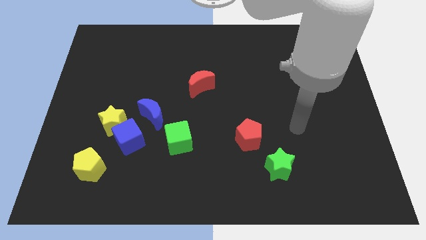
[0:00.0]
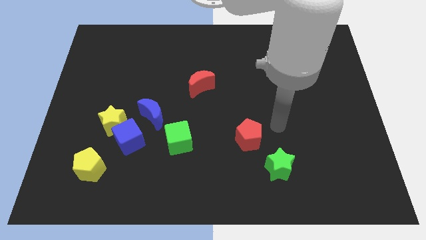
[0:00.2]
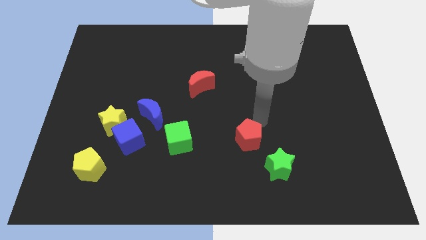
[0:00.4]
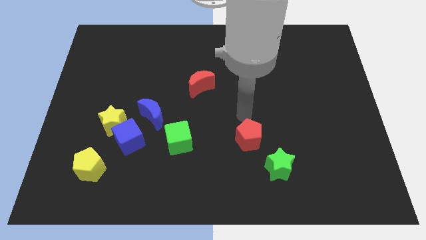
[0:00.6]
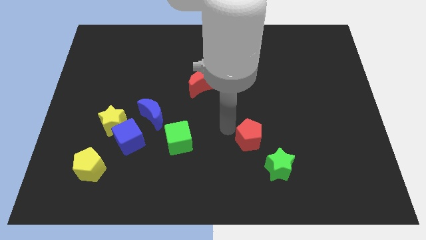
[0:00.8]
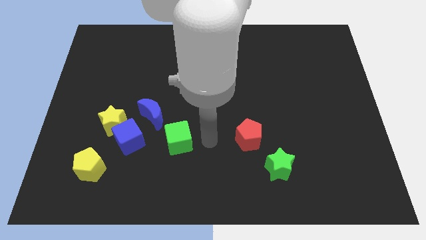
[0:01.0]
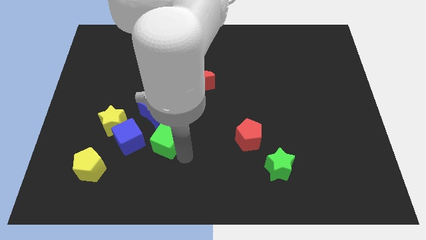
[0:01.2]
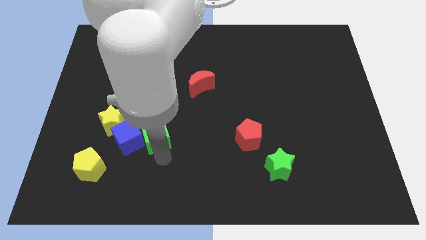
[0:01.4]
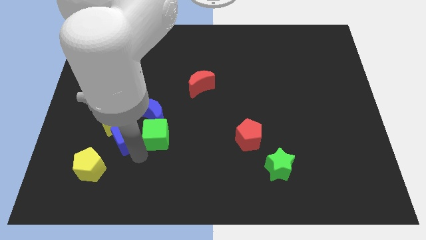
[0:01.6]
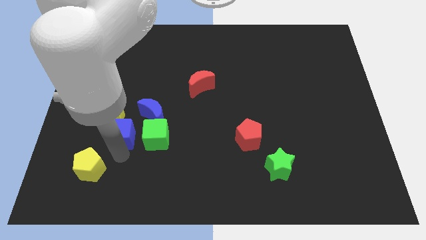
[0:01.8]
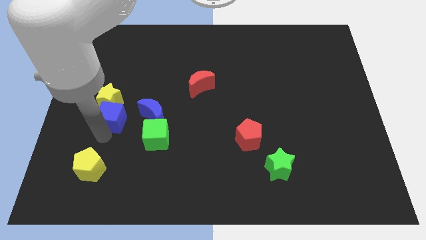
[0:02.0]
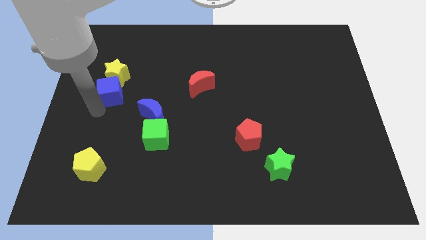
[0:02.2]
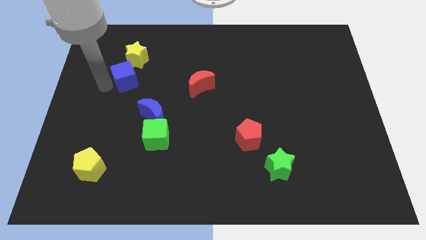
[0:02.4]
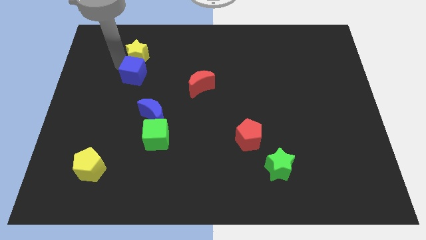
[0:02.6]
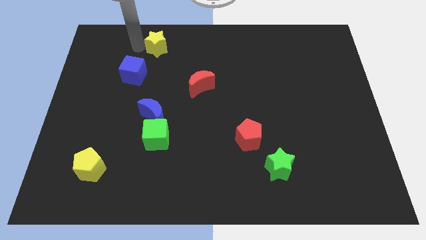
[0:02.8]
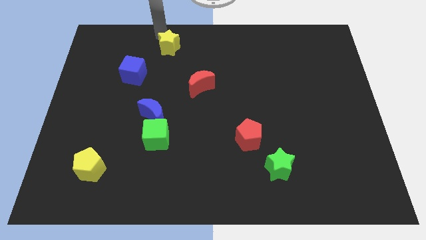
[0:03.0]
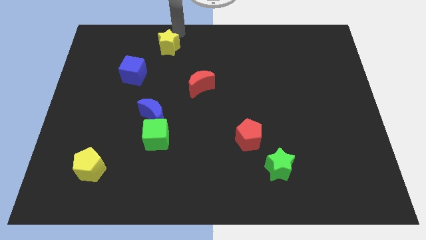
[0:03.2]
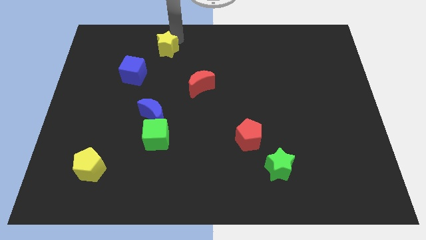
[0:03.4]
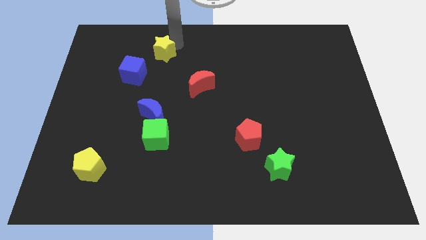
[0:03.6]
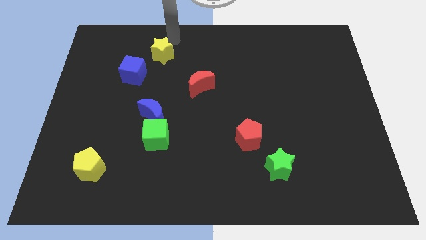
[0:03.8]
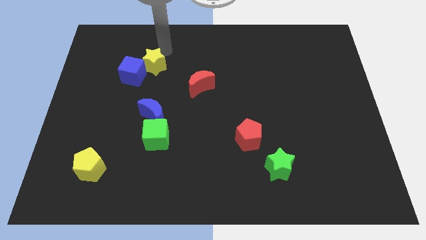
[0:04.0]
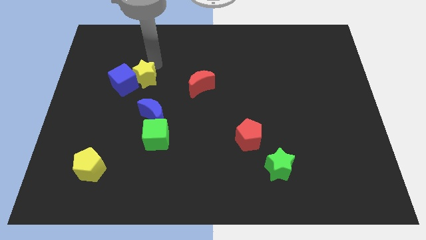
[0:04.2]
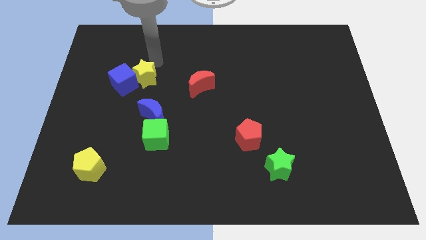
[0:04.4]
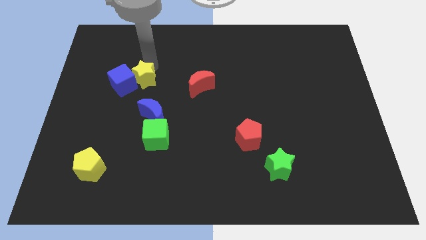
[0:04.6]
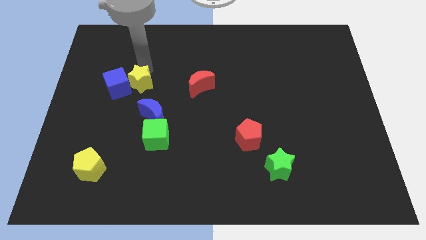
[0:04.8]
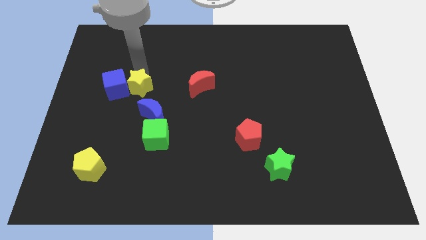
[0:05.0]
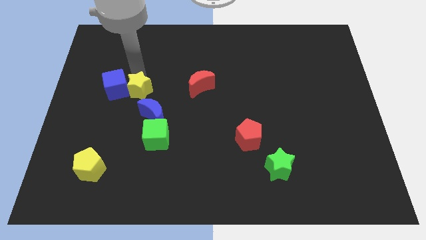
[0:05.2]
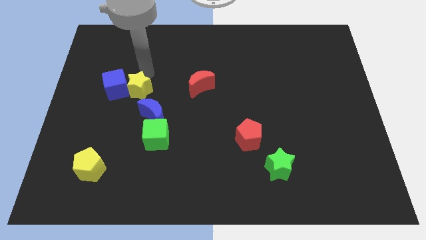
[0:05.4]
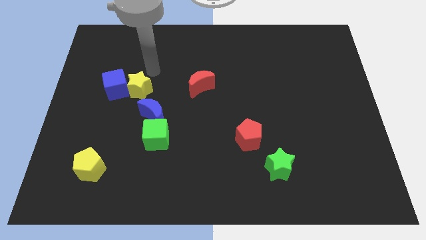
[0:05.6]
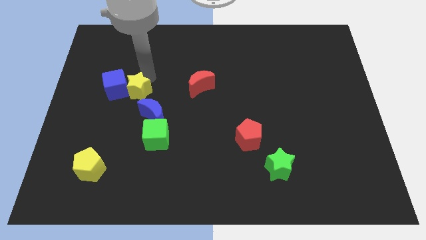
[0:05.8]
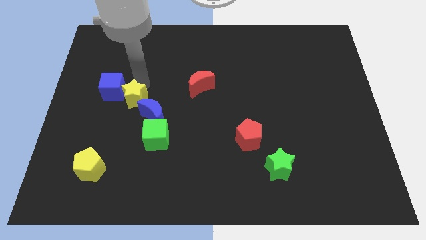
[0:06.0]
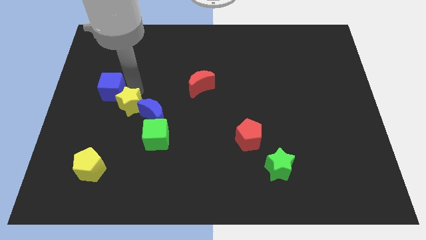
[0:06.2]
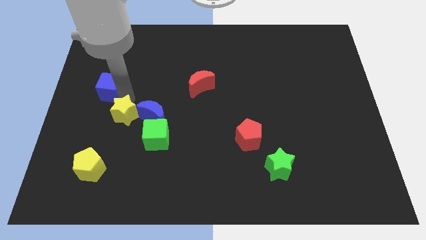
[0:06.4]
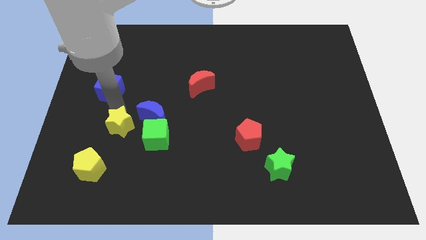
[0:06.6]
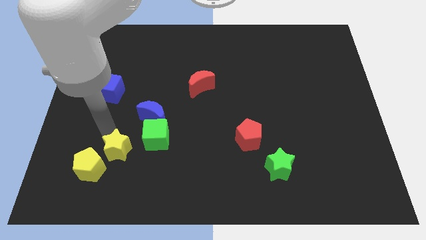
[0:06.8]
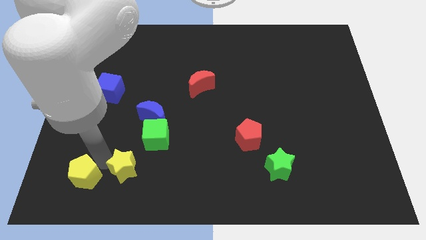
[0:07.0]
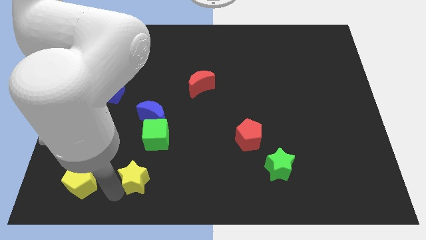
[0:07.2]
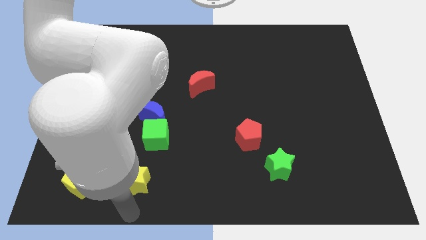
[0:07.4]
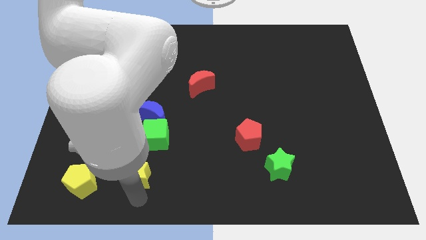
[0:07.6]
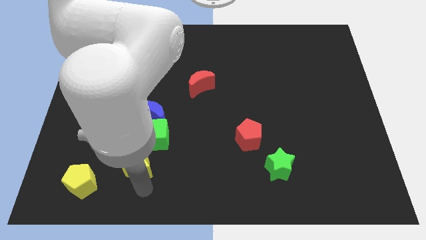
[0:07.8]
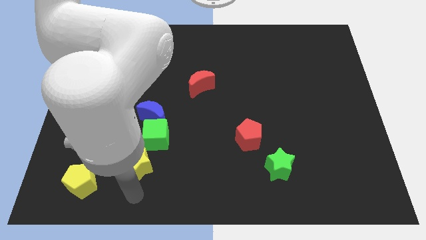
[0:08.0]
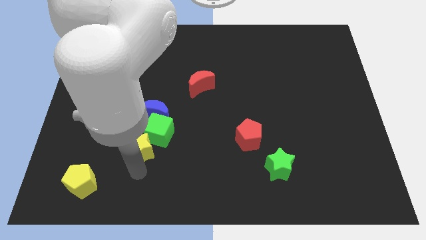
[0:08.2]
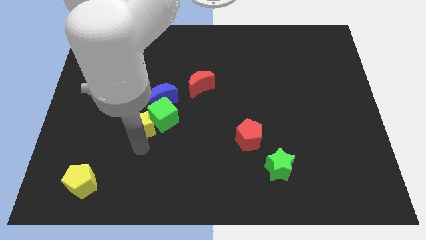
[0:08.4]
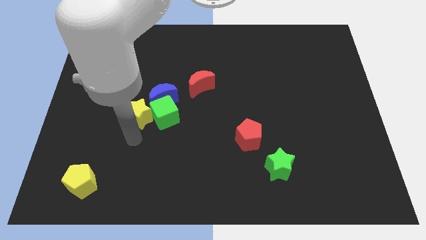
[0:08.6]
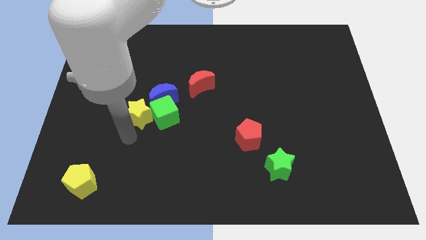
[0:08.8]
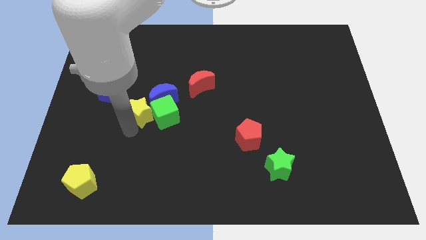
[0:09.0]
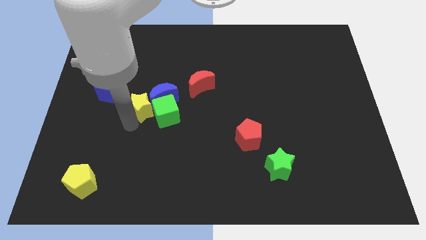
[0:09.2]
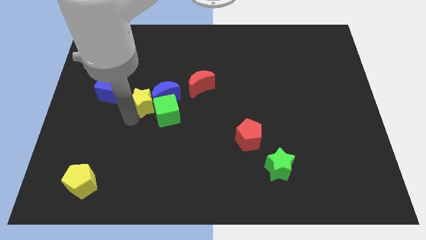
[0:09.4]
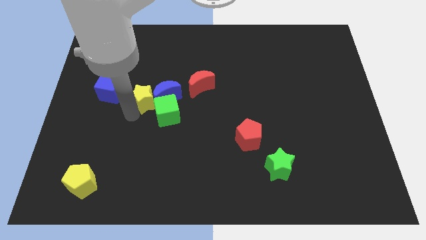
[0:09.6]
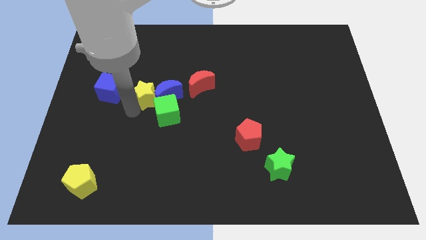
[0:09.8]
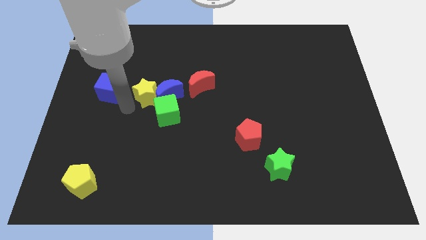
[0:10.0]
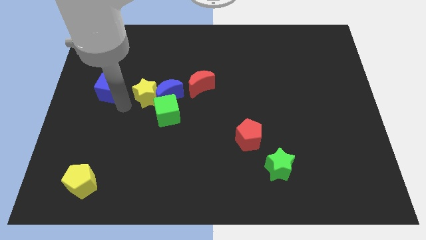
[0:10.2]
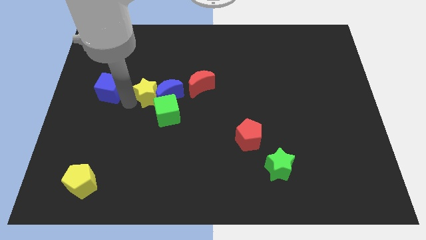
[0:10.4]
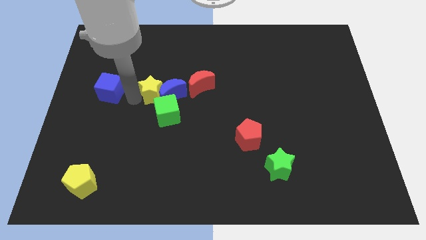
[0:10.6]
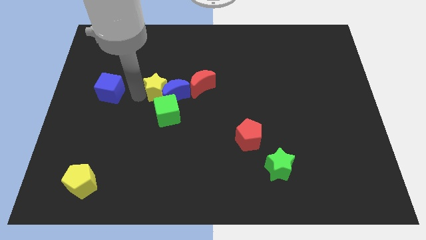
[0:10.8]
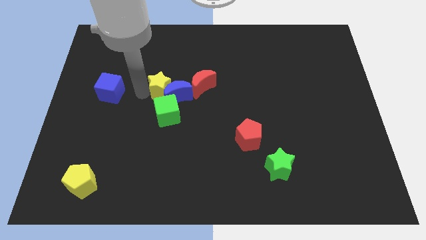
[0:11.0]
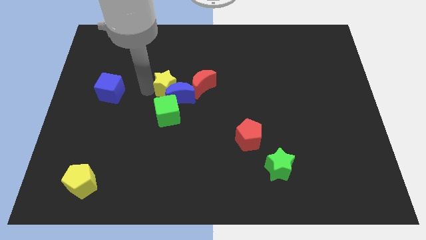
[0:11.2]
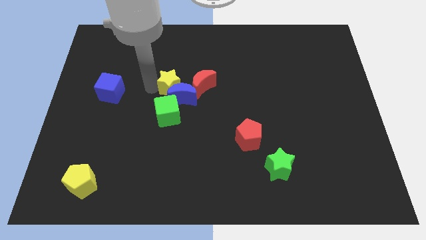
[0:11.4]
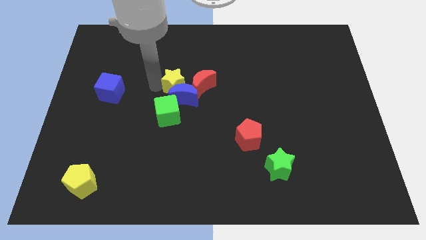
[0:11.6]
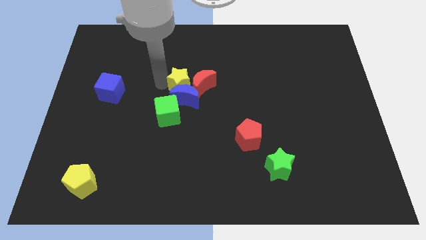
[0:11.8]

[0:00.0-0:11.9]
put the yellow star to the red moon
